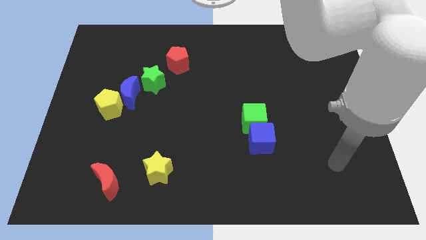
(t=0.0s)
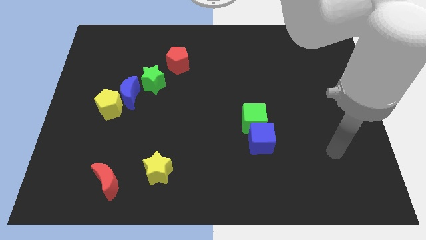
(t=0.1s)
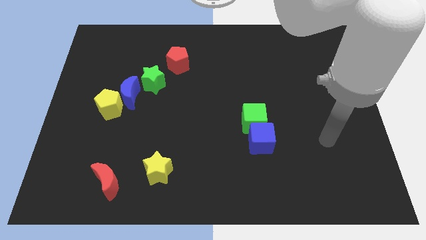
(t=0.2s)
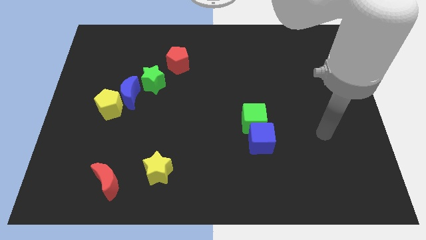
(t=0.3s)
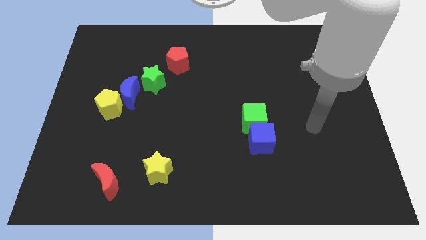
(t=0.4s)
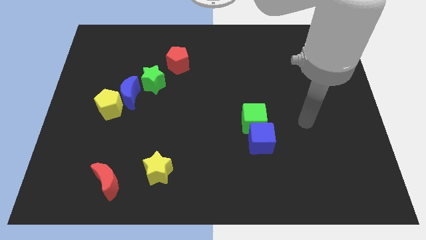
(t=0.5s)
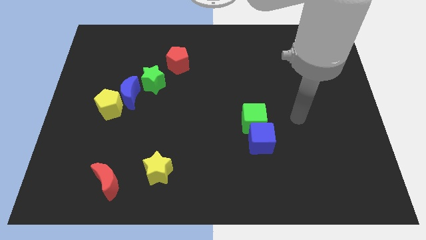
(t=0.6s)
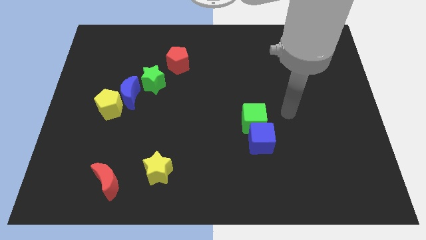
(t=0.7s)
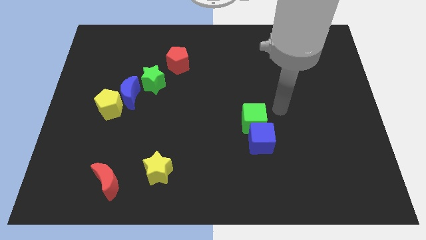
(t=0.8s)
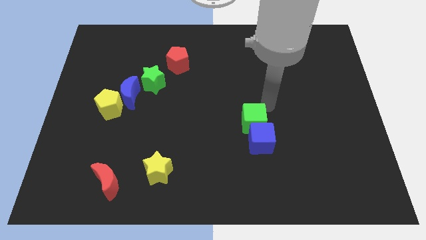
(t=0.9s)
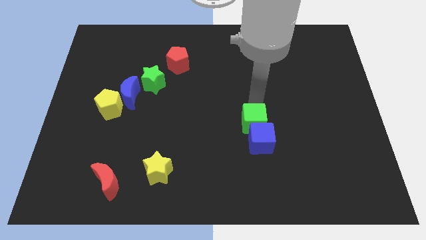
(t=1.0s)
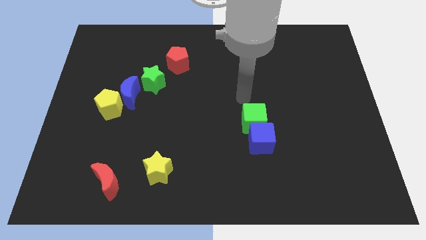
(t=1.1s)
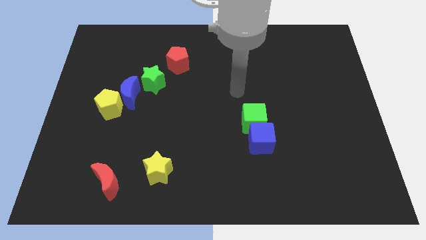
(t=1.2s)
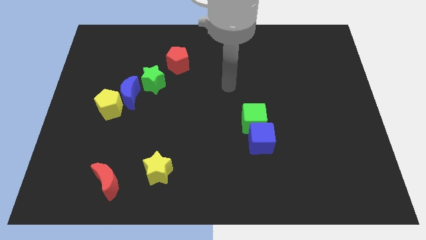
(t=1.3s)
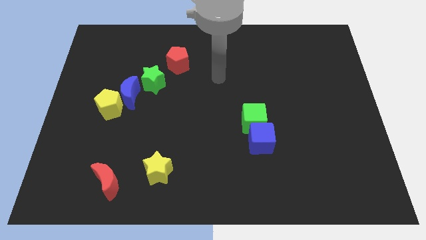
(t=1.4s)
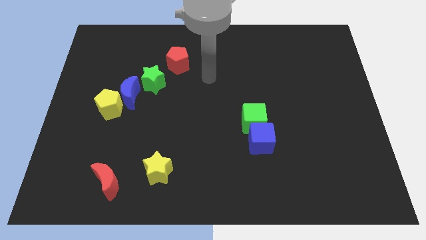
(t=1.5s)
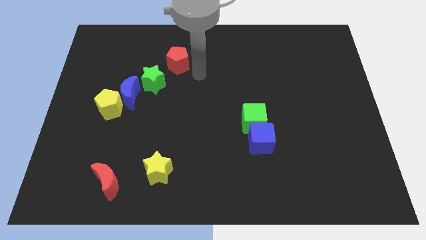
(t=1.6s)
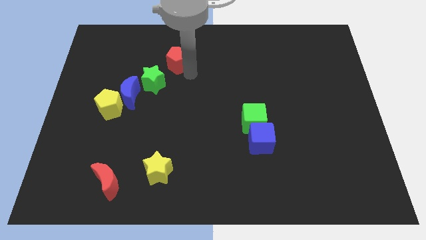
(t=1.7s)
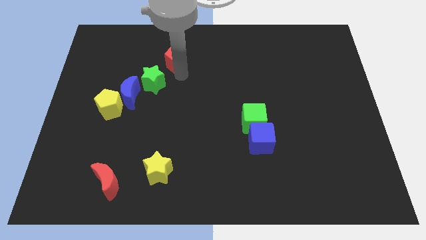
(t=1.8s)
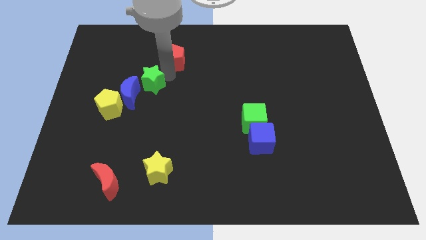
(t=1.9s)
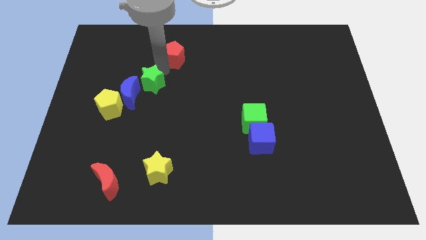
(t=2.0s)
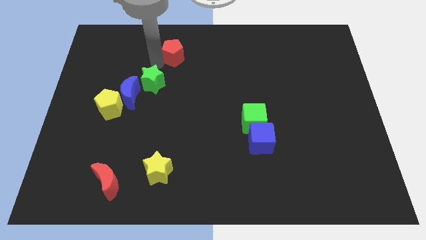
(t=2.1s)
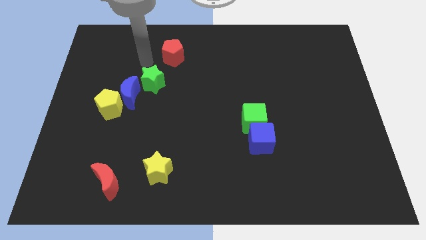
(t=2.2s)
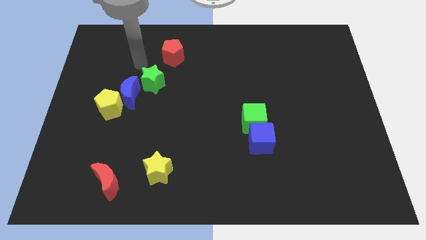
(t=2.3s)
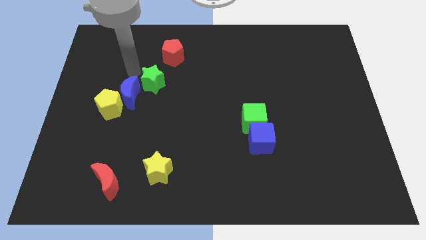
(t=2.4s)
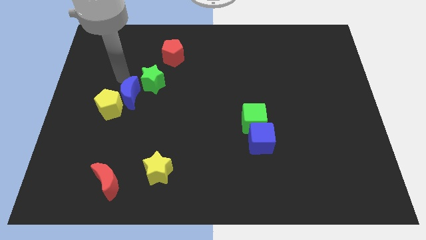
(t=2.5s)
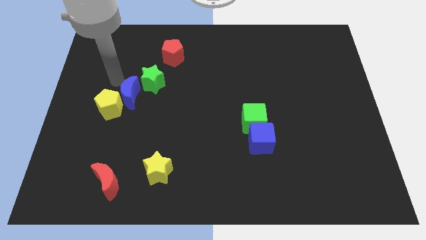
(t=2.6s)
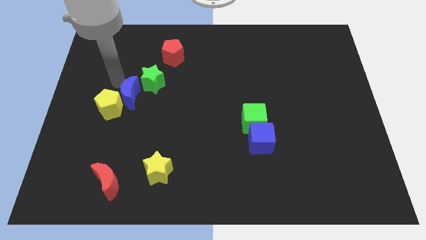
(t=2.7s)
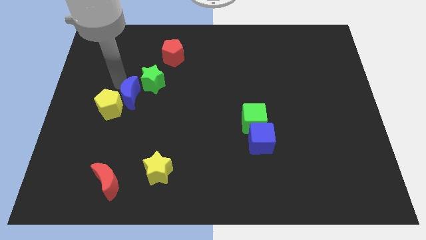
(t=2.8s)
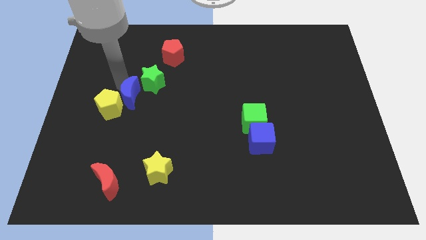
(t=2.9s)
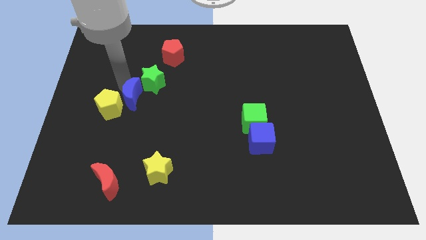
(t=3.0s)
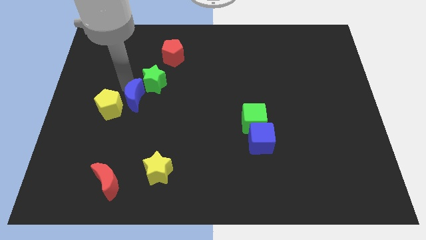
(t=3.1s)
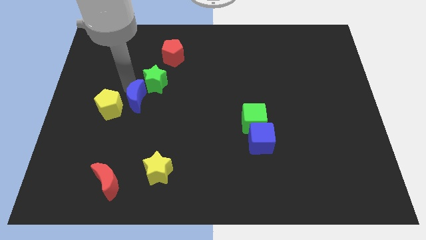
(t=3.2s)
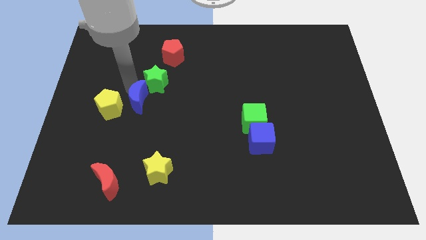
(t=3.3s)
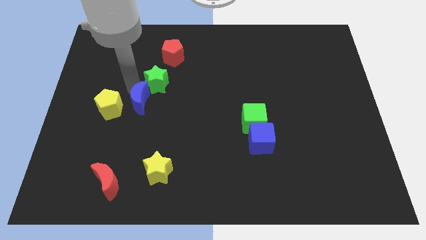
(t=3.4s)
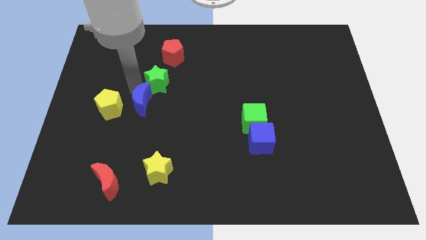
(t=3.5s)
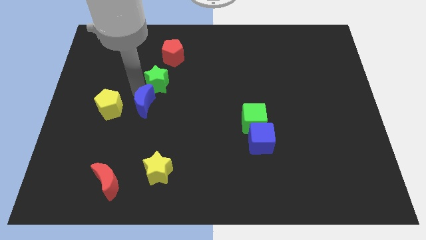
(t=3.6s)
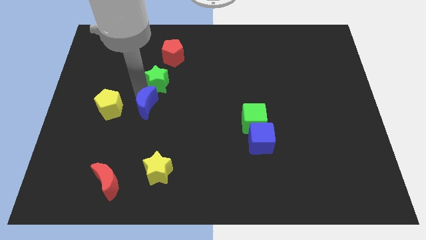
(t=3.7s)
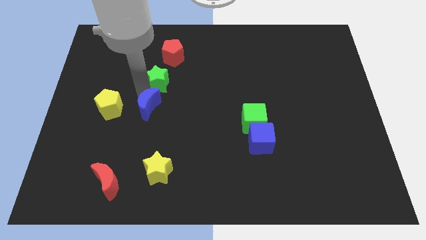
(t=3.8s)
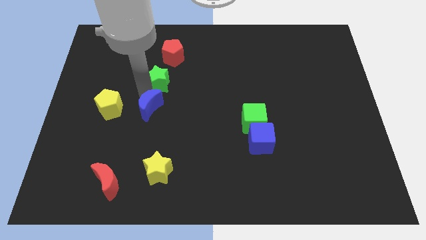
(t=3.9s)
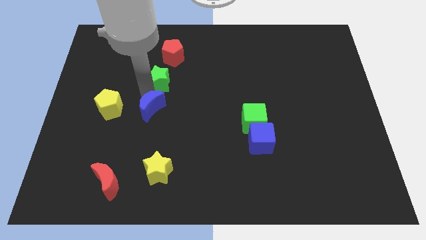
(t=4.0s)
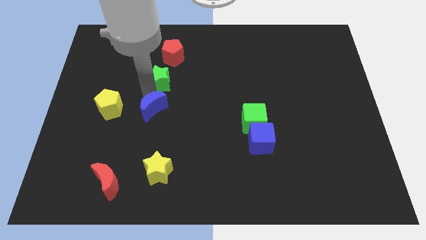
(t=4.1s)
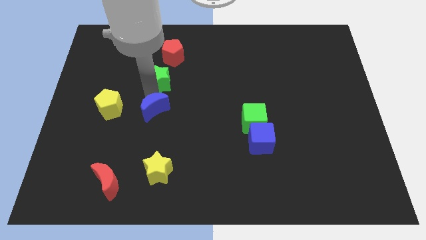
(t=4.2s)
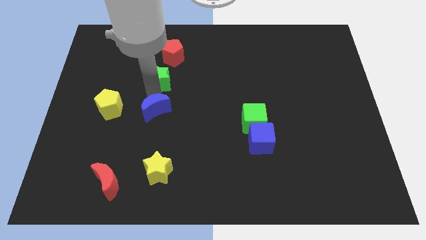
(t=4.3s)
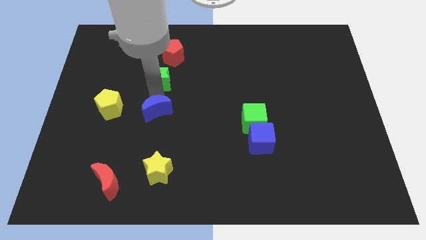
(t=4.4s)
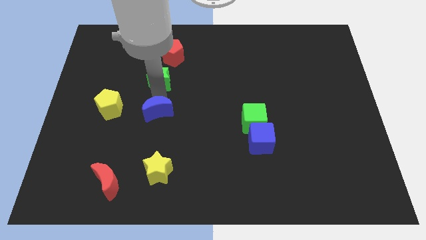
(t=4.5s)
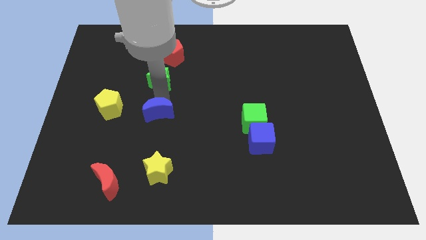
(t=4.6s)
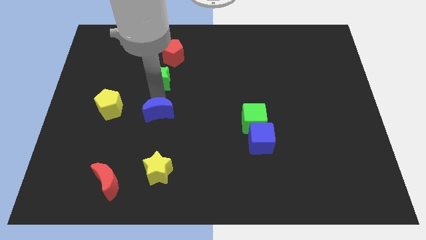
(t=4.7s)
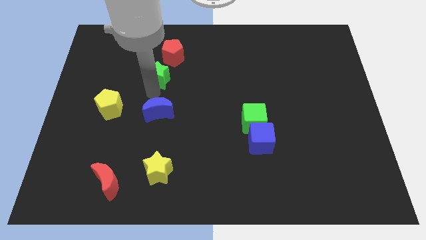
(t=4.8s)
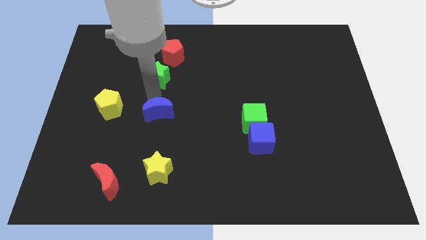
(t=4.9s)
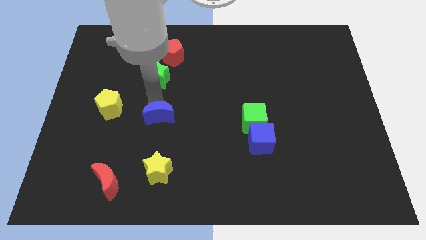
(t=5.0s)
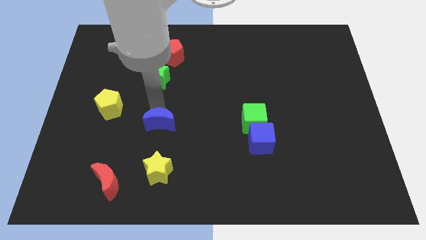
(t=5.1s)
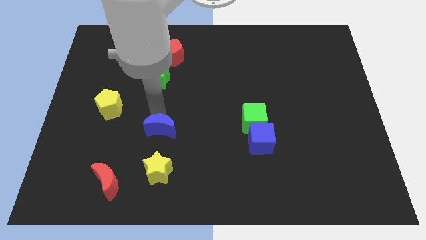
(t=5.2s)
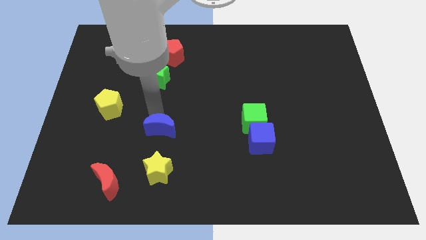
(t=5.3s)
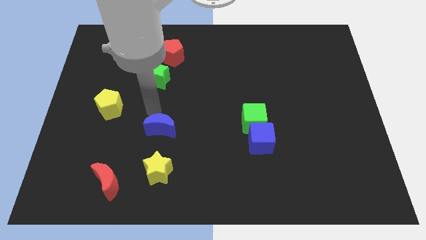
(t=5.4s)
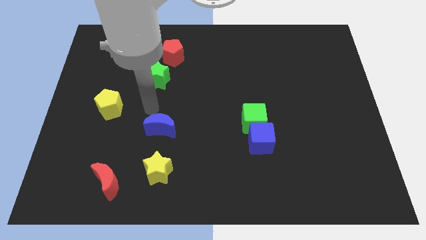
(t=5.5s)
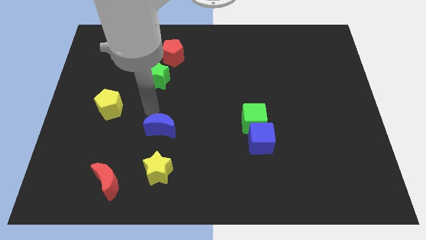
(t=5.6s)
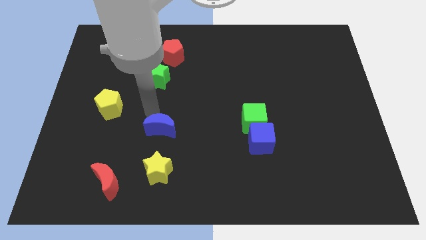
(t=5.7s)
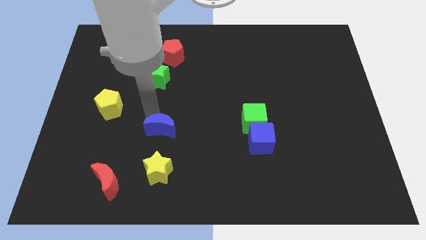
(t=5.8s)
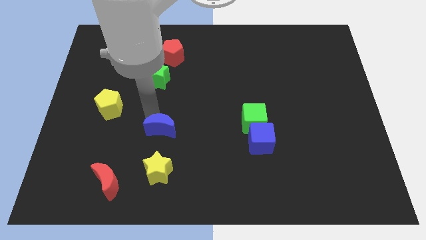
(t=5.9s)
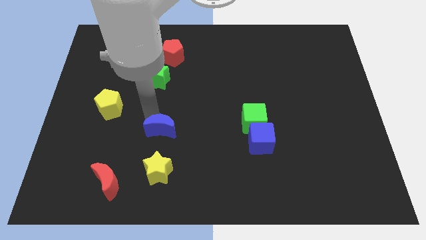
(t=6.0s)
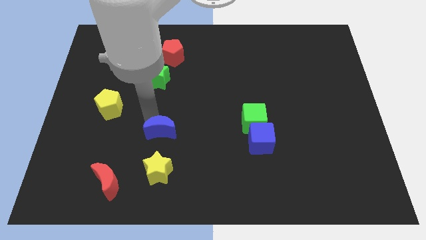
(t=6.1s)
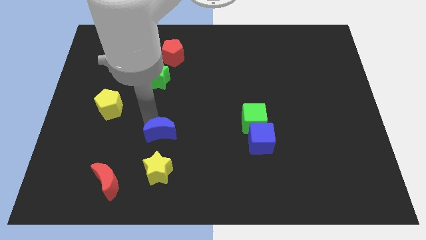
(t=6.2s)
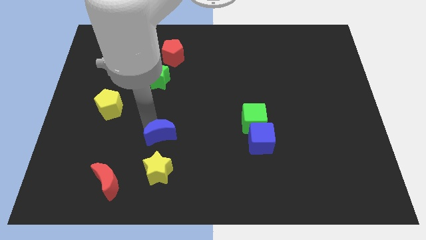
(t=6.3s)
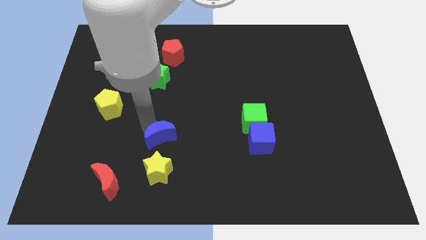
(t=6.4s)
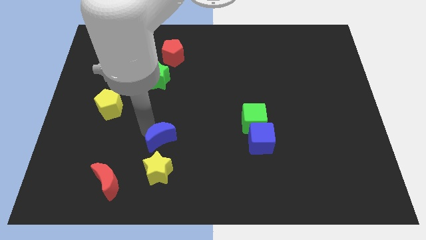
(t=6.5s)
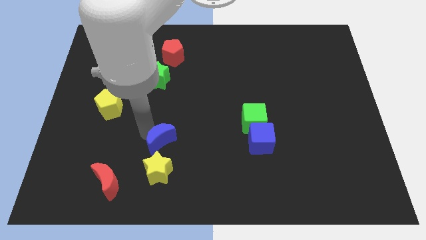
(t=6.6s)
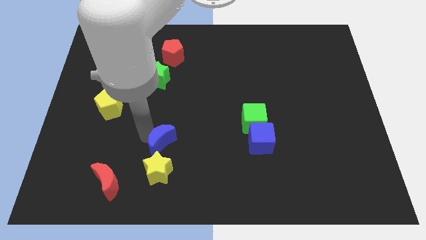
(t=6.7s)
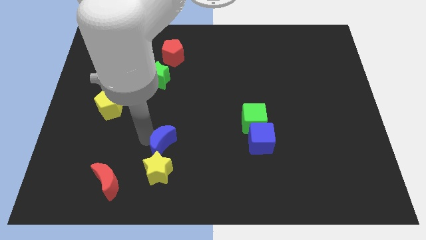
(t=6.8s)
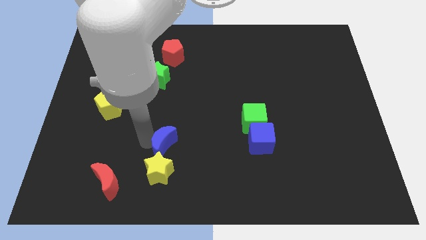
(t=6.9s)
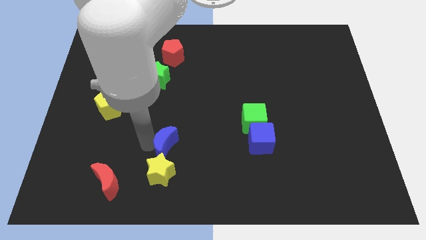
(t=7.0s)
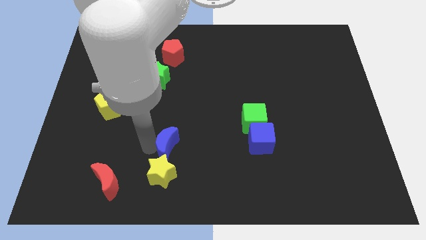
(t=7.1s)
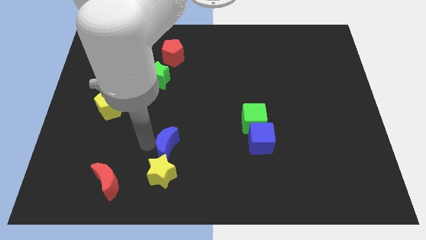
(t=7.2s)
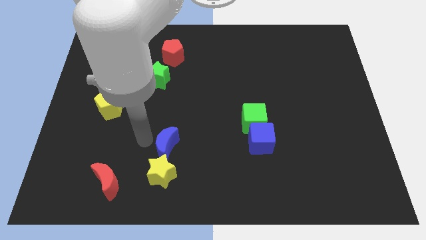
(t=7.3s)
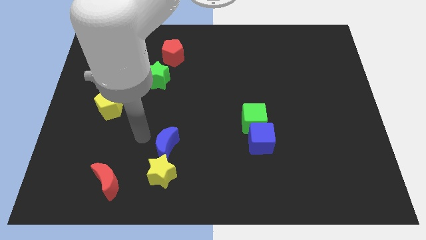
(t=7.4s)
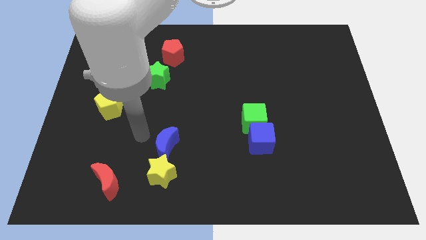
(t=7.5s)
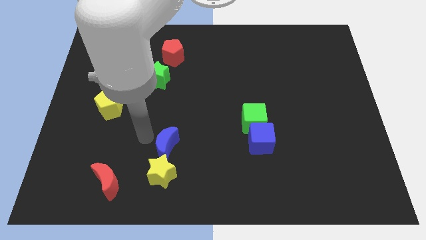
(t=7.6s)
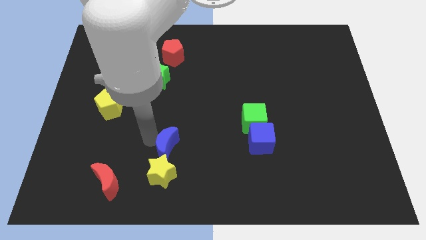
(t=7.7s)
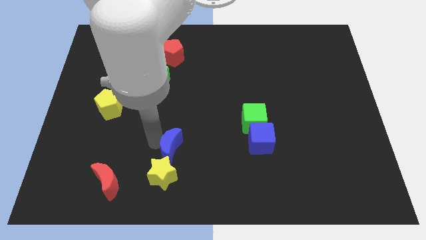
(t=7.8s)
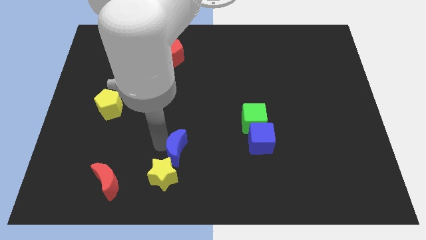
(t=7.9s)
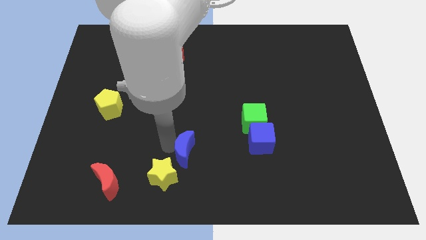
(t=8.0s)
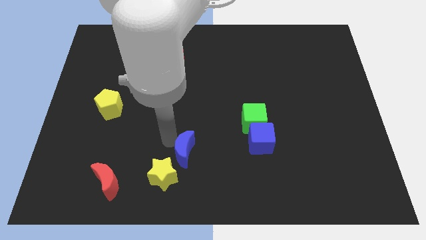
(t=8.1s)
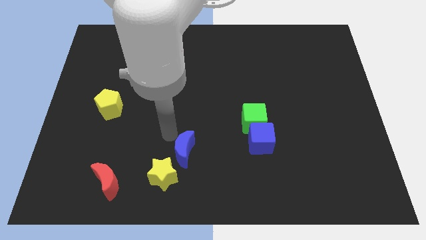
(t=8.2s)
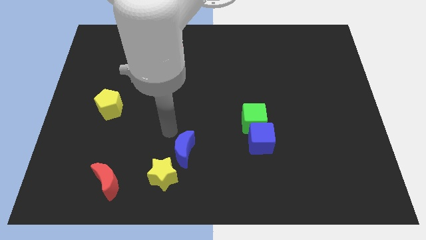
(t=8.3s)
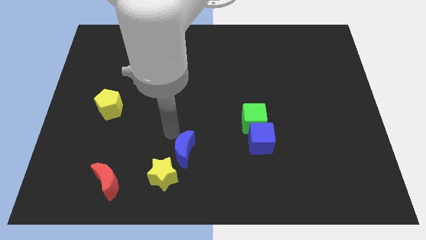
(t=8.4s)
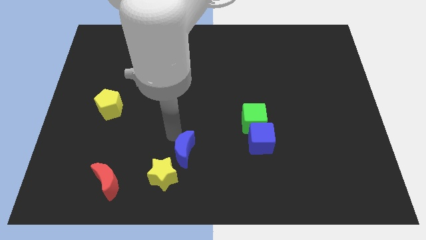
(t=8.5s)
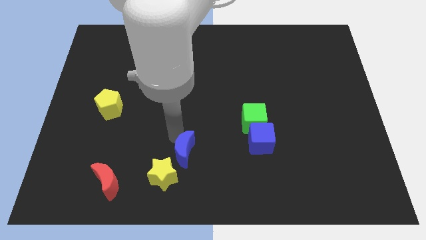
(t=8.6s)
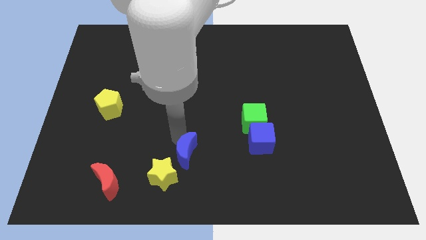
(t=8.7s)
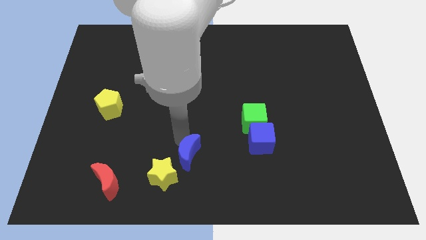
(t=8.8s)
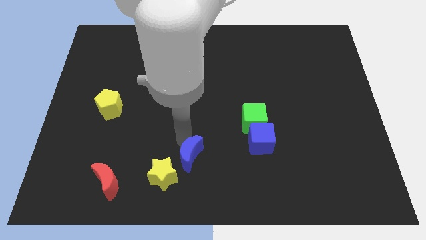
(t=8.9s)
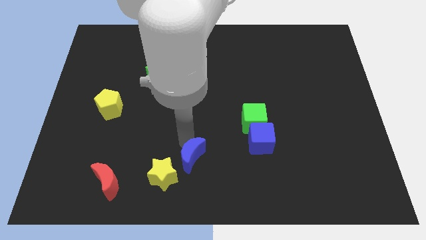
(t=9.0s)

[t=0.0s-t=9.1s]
slide the blue moon to the bottom side
